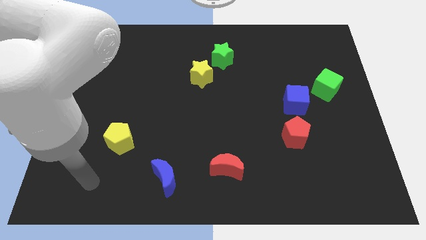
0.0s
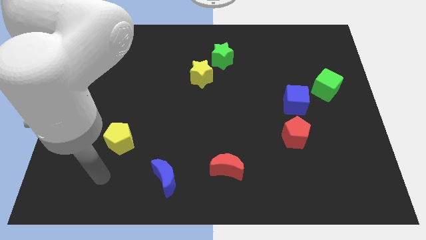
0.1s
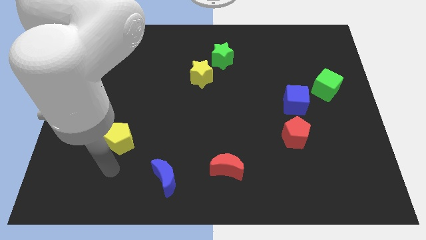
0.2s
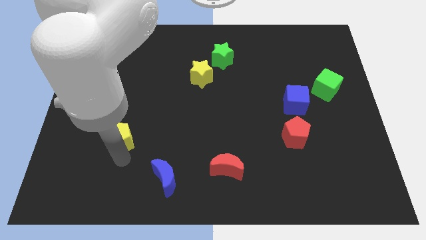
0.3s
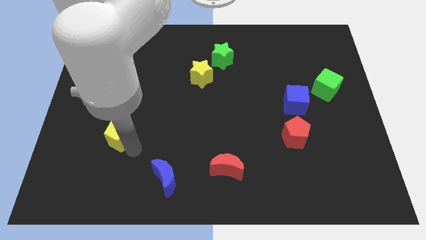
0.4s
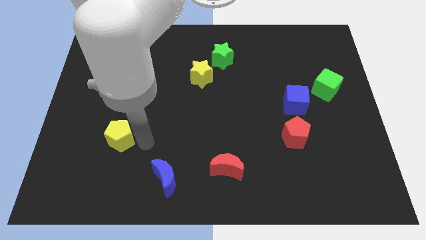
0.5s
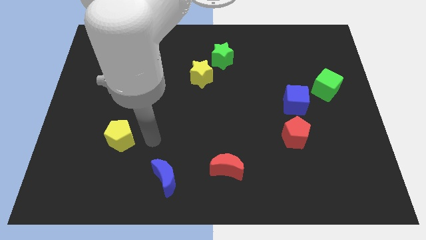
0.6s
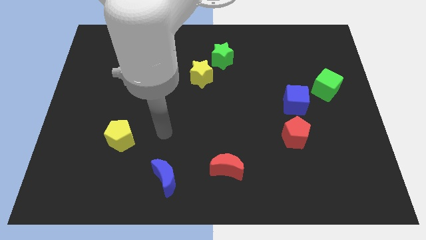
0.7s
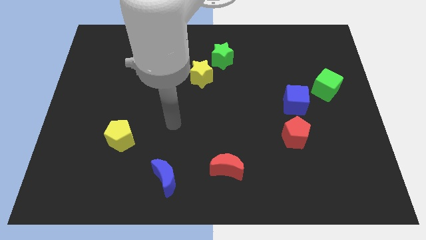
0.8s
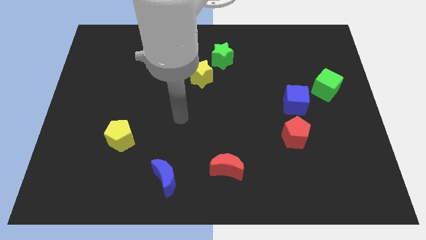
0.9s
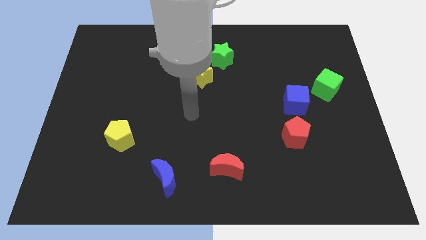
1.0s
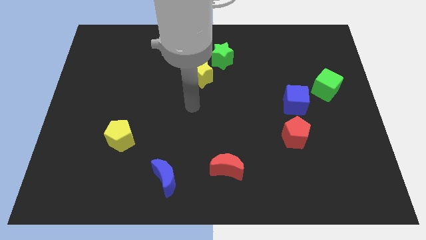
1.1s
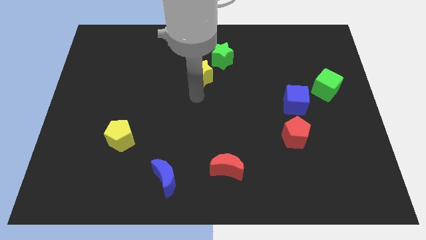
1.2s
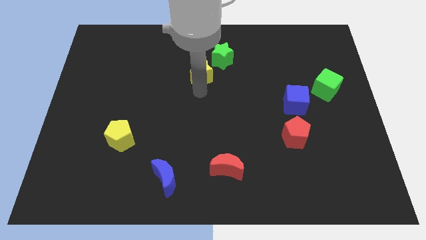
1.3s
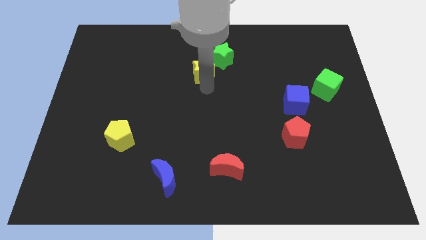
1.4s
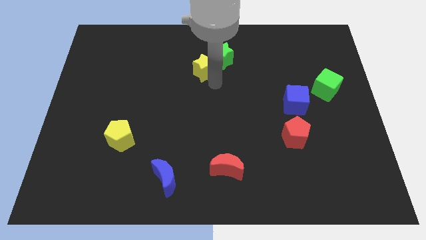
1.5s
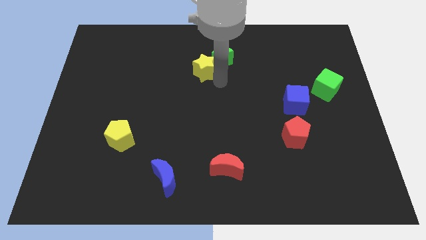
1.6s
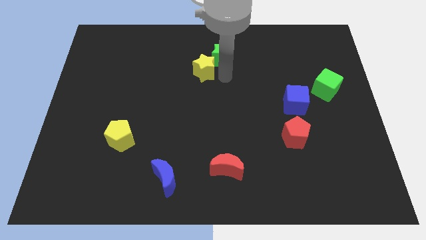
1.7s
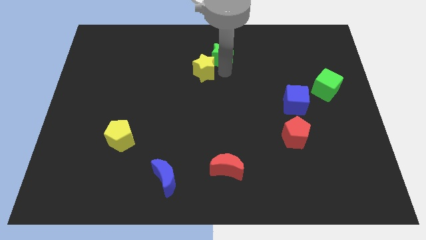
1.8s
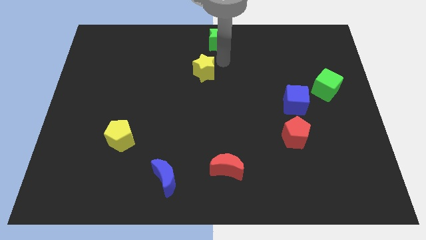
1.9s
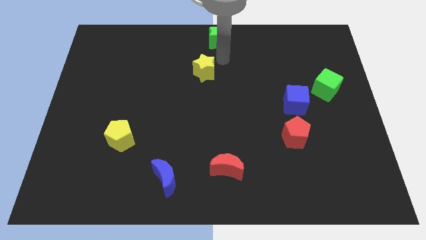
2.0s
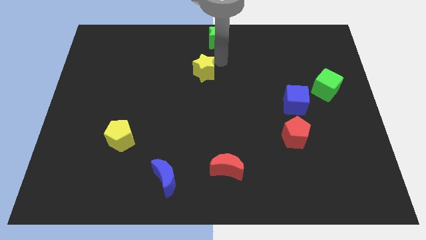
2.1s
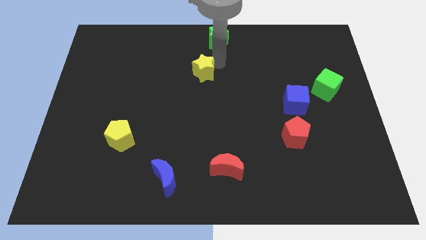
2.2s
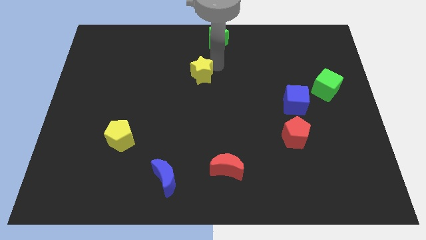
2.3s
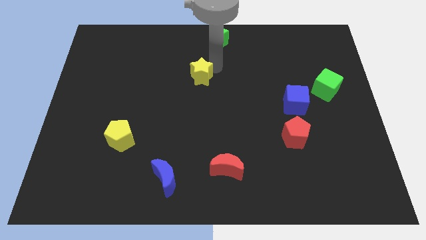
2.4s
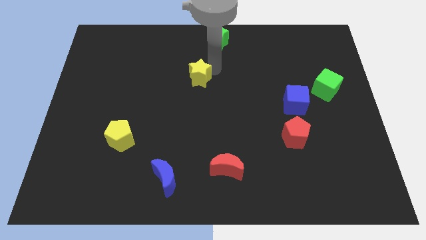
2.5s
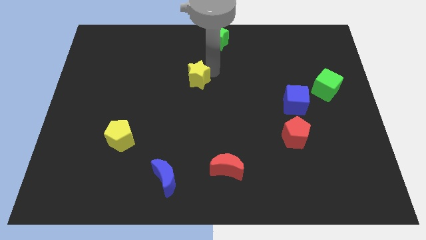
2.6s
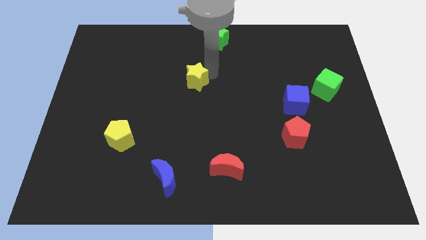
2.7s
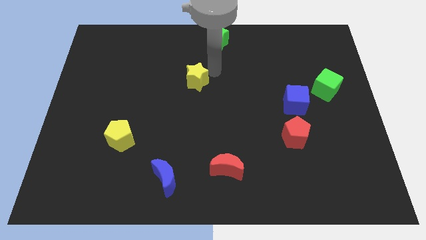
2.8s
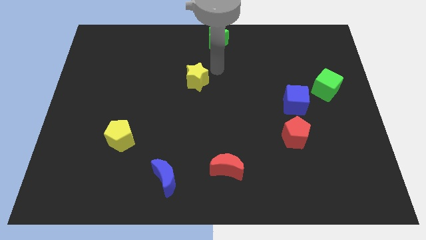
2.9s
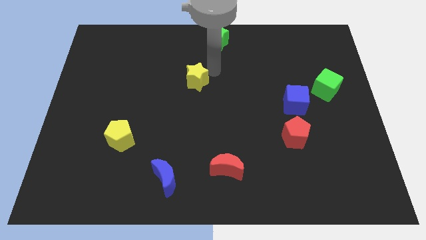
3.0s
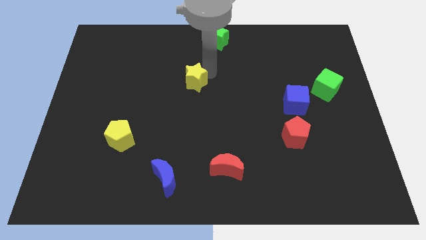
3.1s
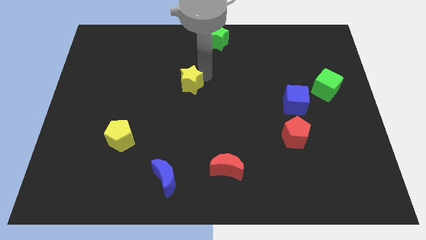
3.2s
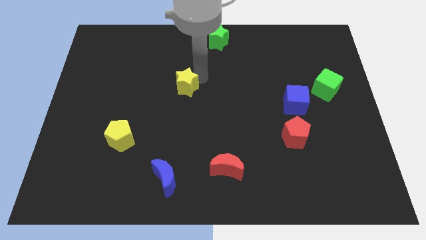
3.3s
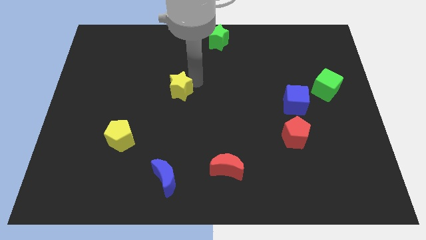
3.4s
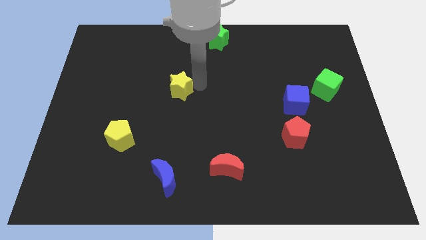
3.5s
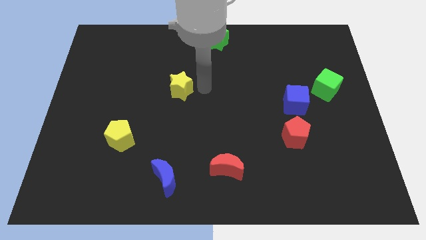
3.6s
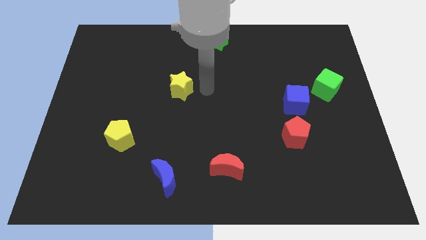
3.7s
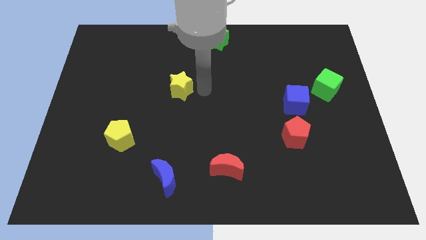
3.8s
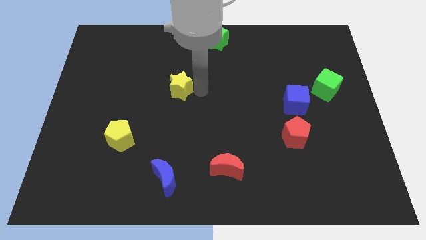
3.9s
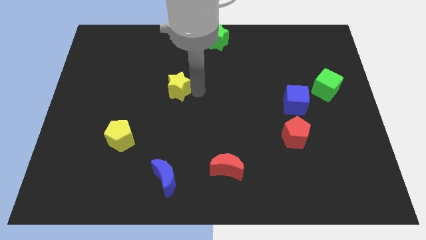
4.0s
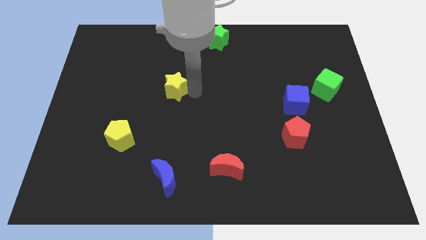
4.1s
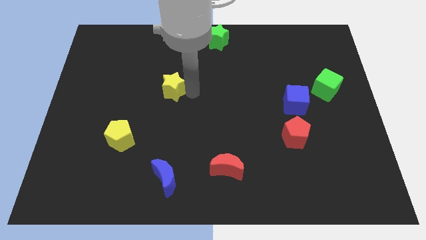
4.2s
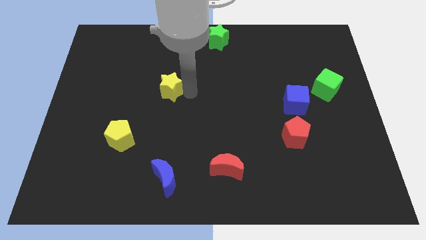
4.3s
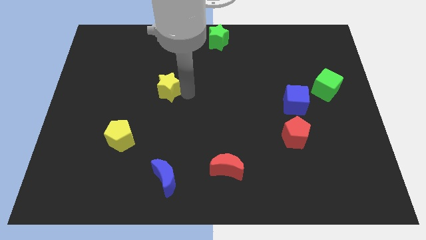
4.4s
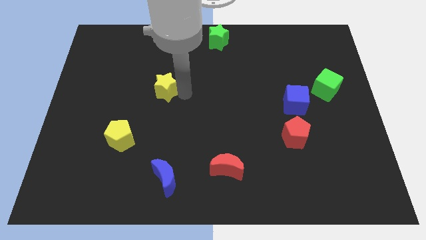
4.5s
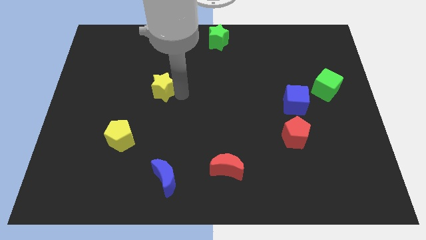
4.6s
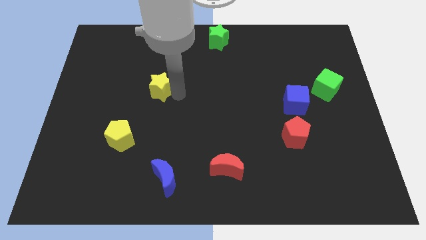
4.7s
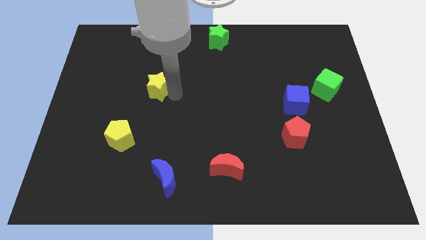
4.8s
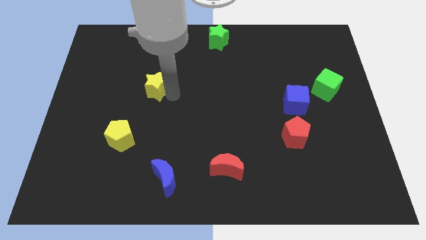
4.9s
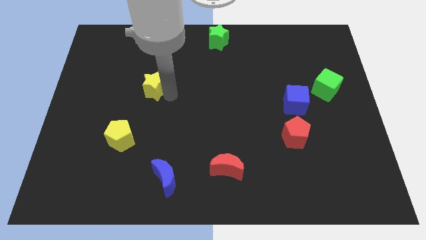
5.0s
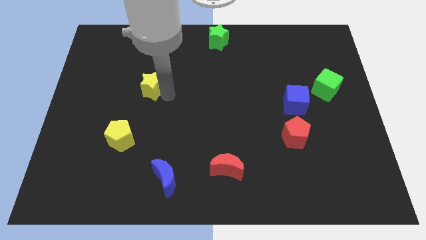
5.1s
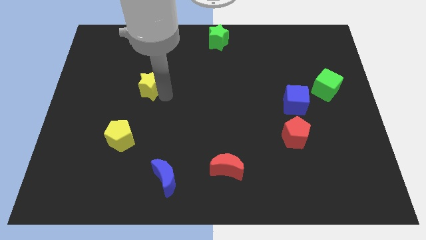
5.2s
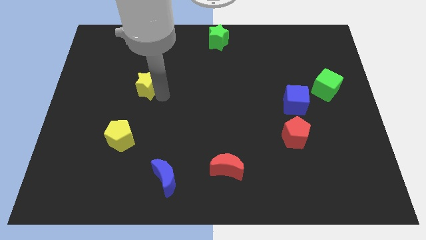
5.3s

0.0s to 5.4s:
push the yellow star to the top of the yellow pentagon

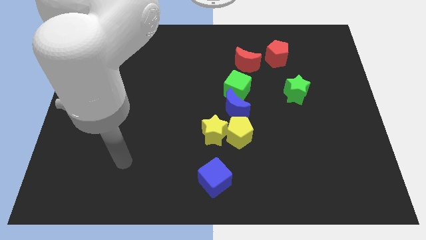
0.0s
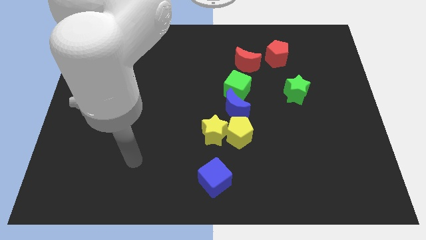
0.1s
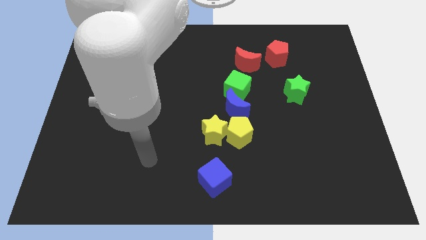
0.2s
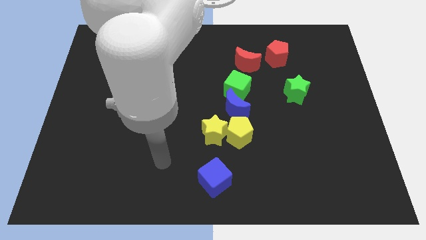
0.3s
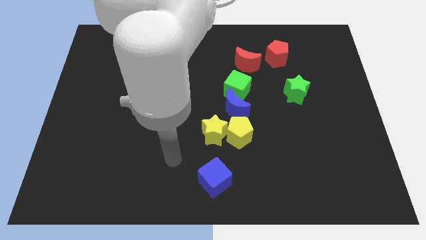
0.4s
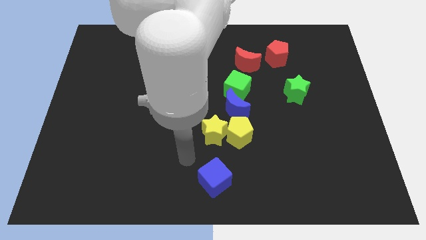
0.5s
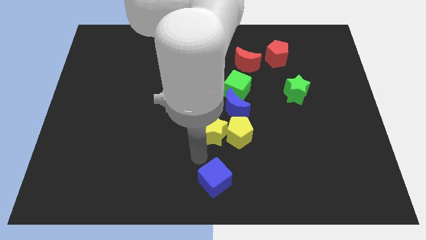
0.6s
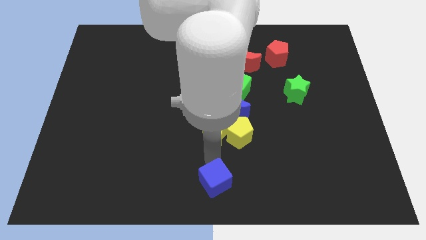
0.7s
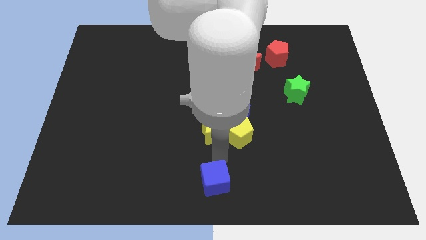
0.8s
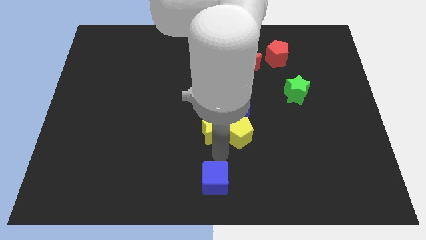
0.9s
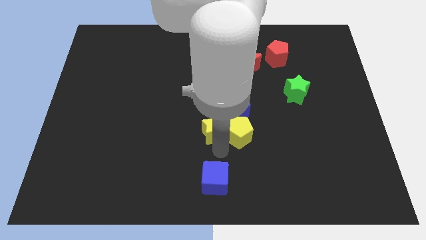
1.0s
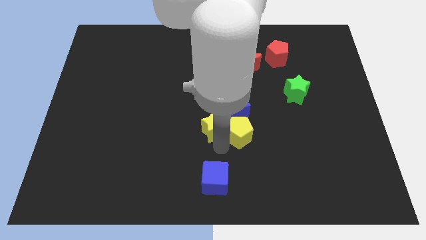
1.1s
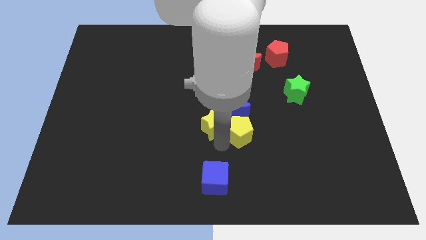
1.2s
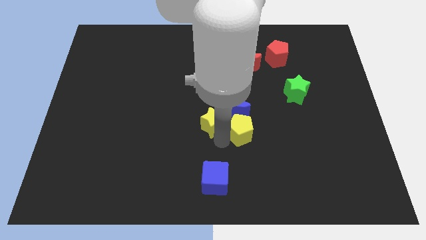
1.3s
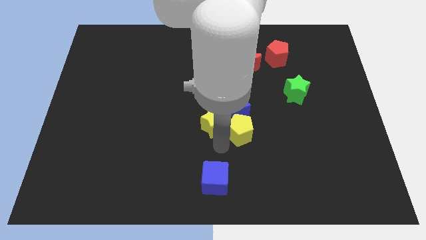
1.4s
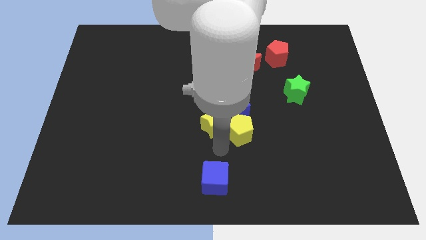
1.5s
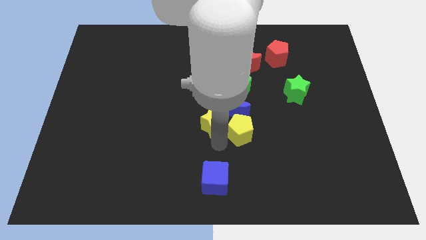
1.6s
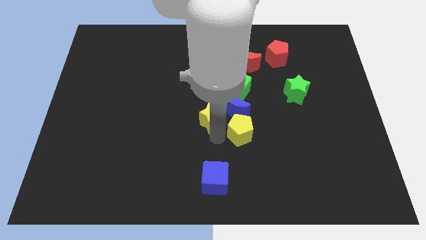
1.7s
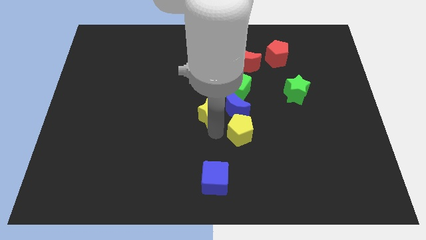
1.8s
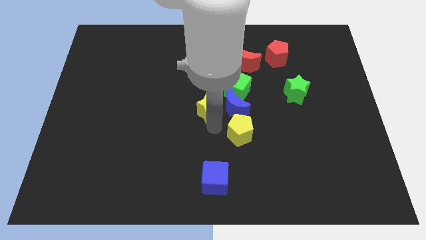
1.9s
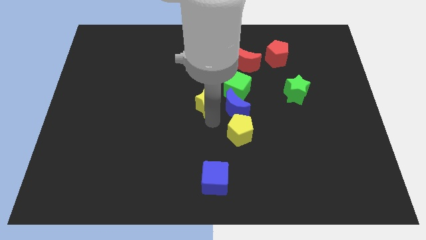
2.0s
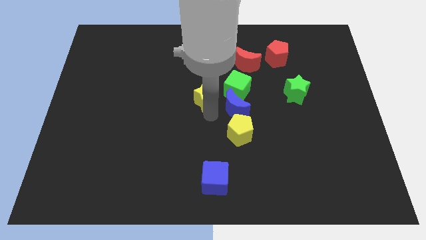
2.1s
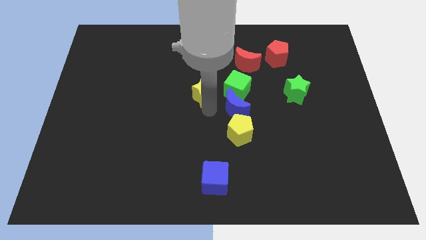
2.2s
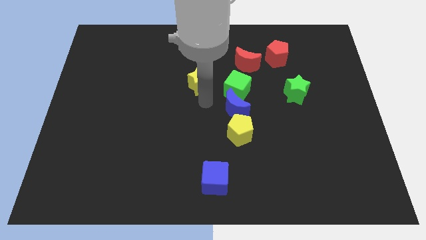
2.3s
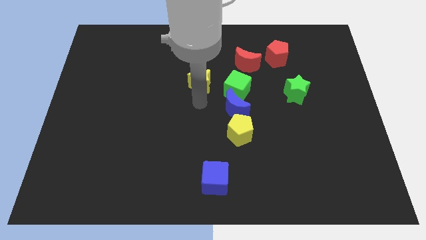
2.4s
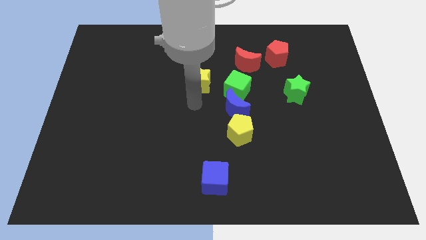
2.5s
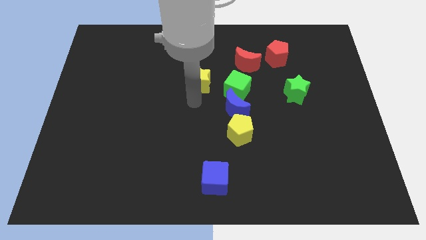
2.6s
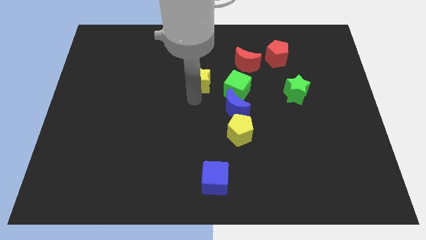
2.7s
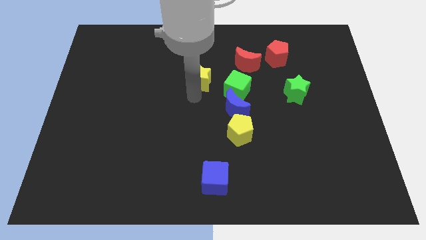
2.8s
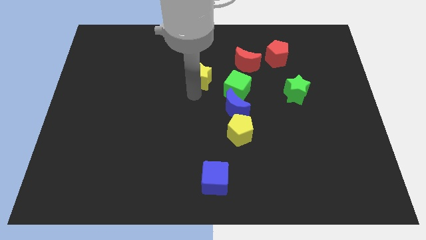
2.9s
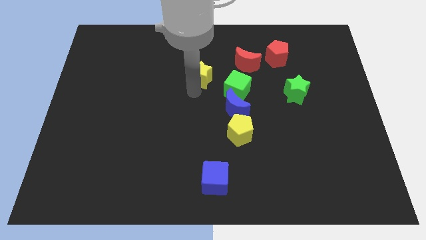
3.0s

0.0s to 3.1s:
push the yellow star left of the red moon
